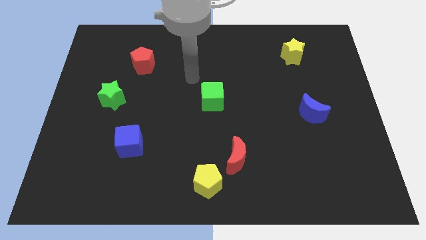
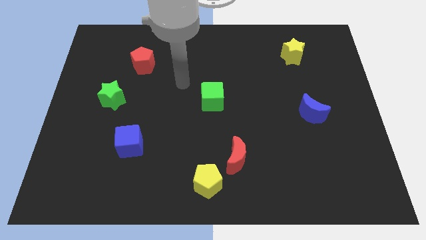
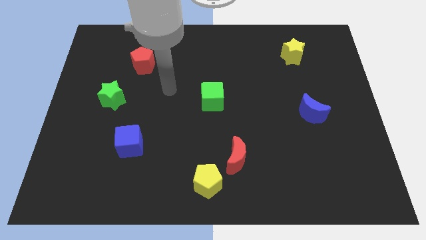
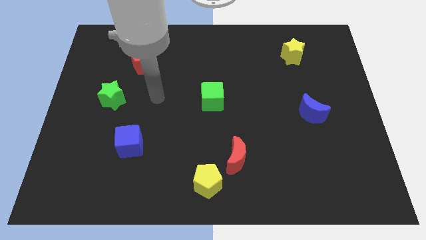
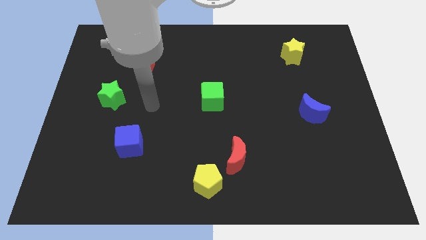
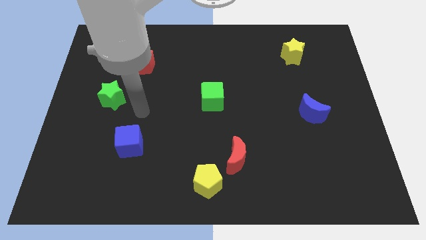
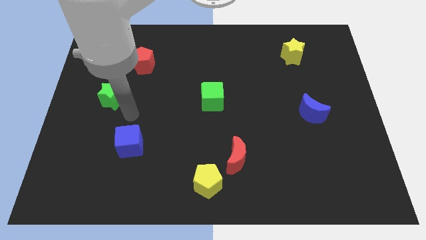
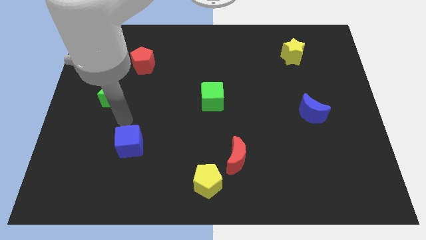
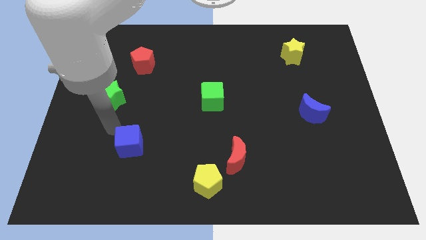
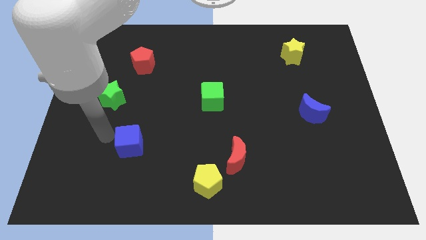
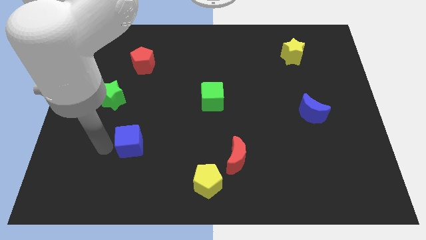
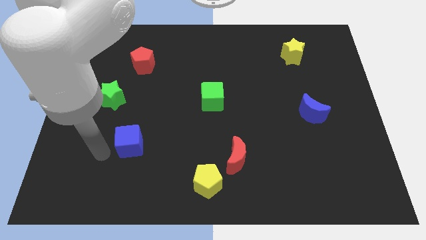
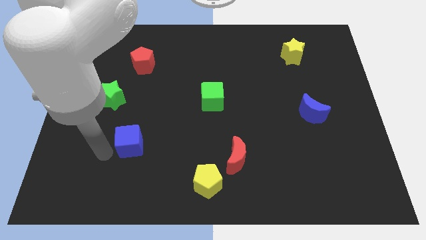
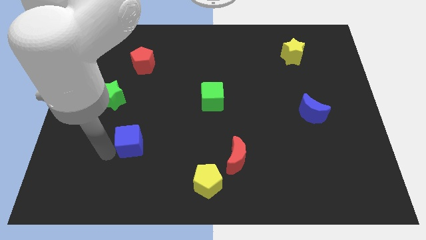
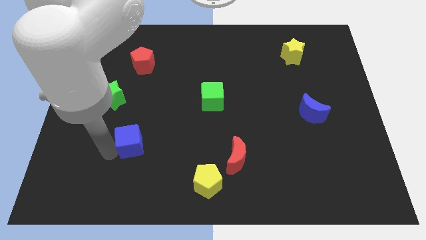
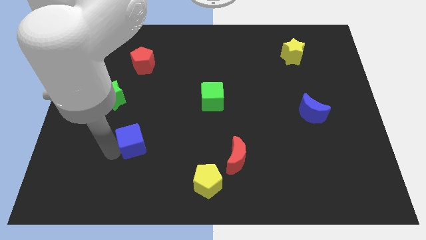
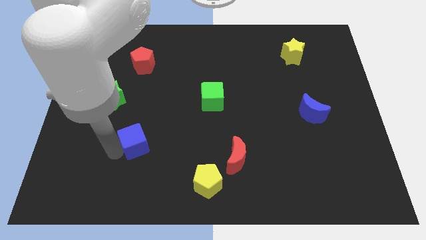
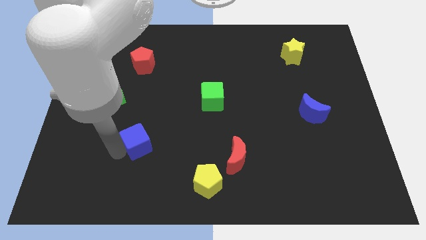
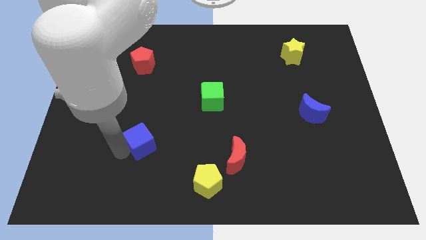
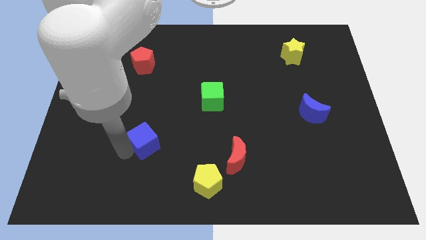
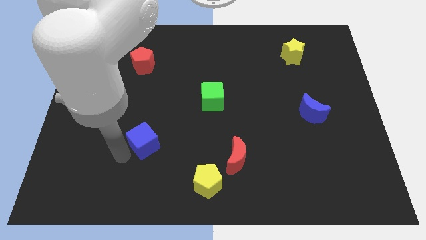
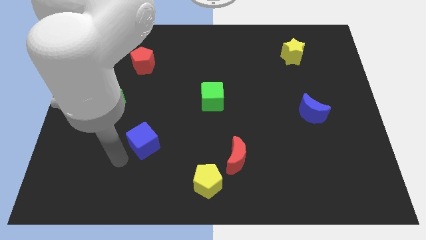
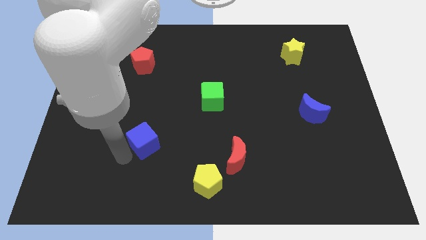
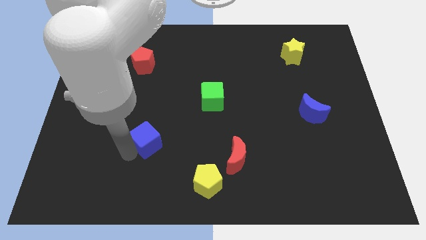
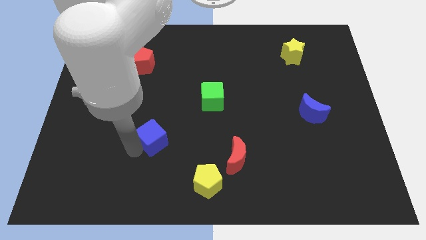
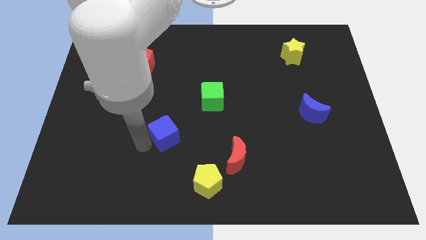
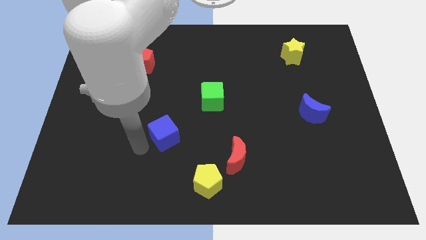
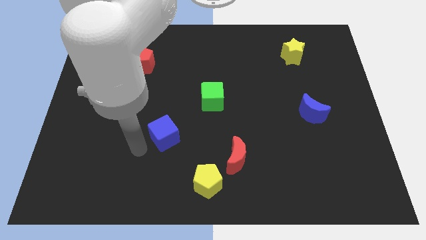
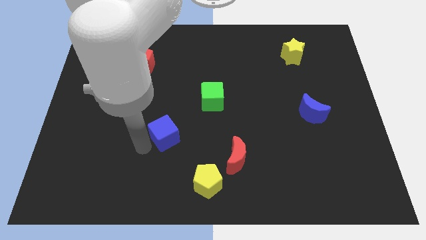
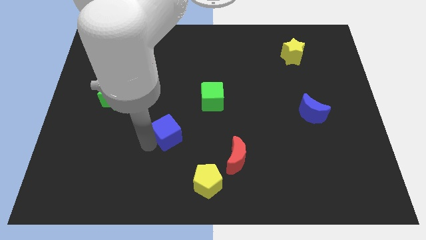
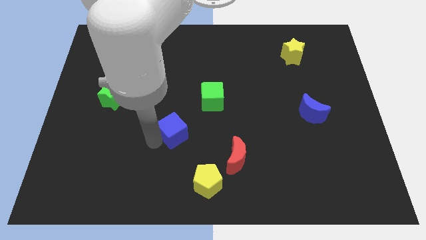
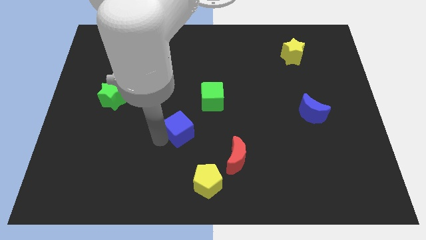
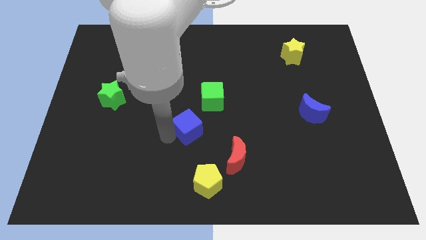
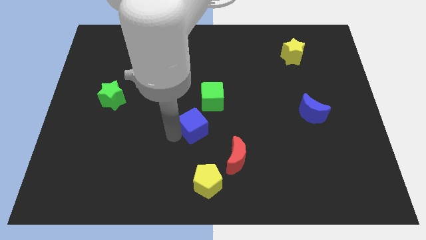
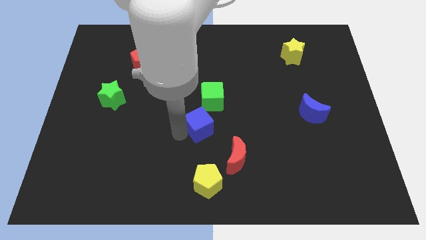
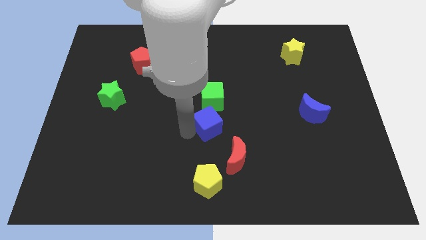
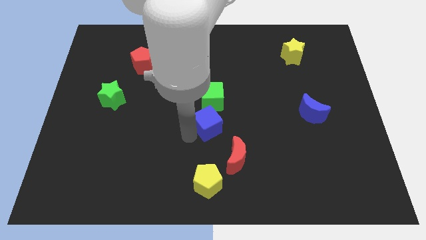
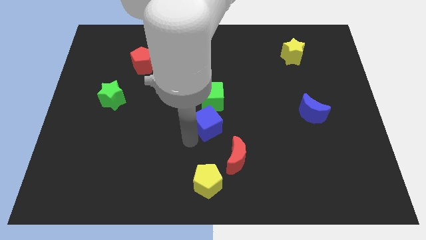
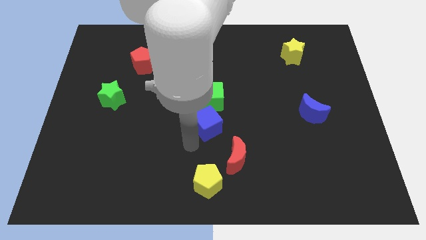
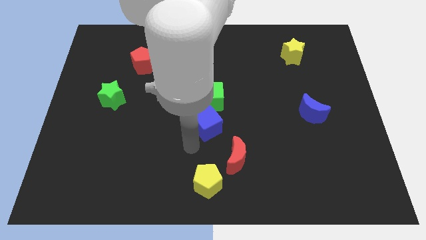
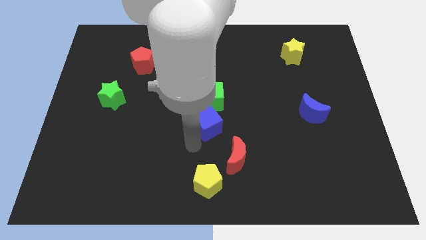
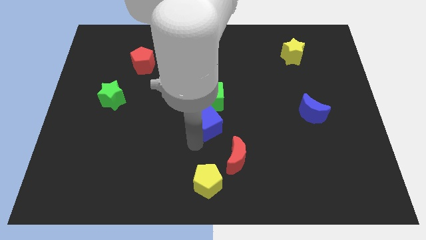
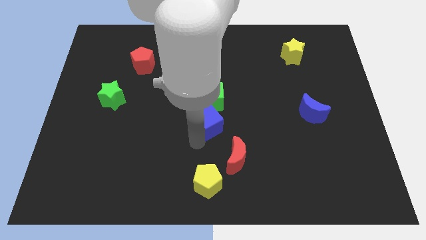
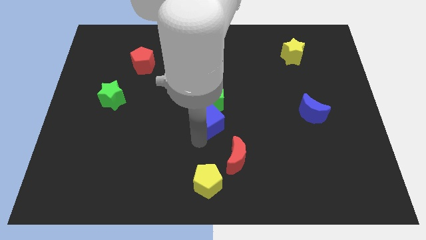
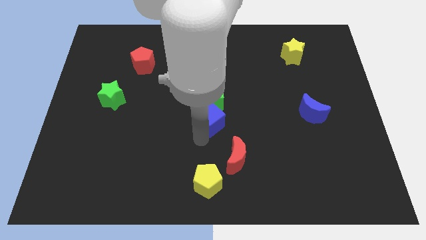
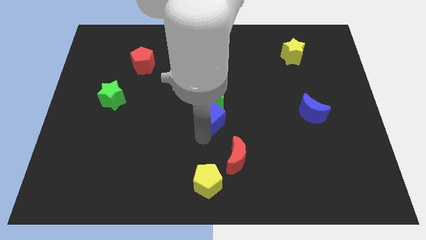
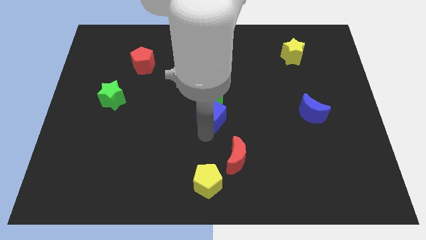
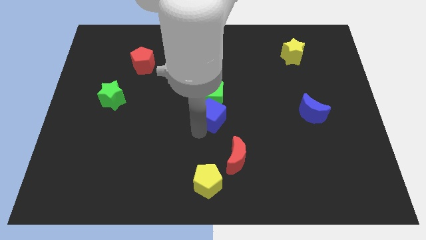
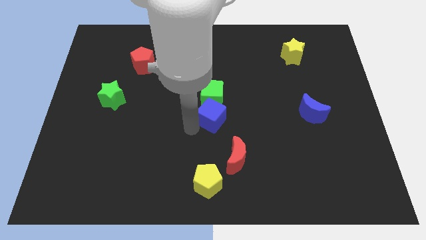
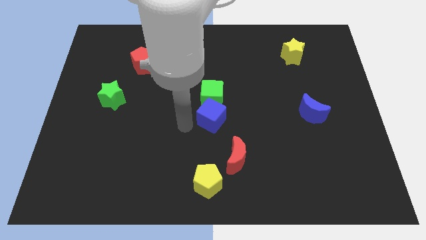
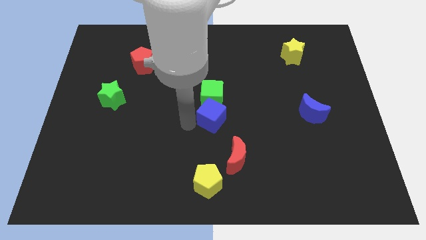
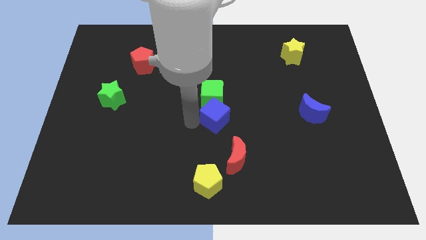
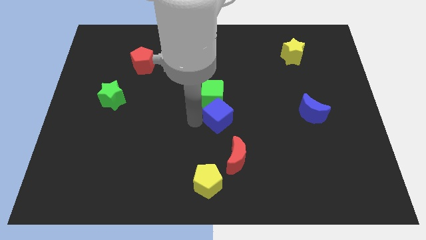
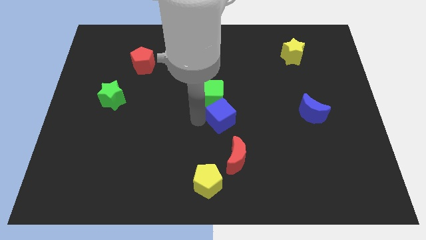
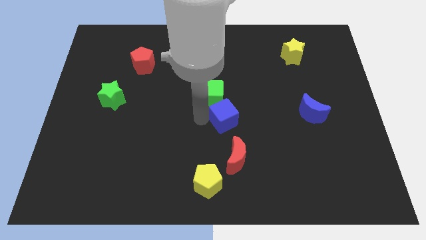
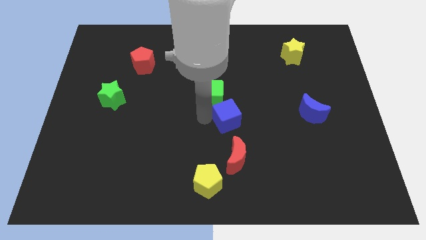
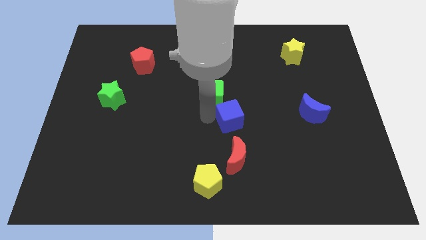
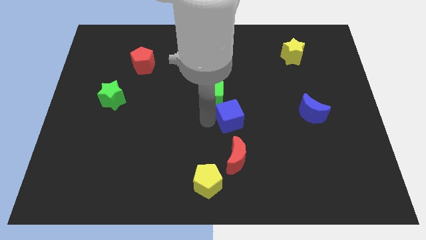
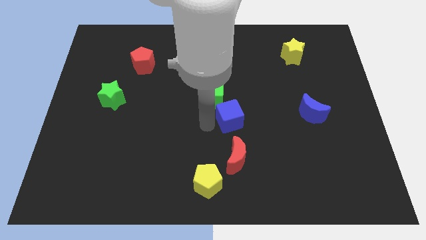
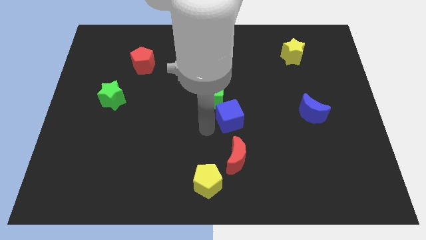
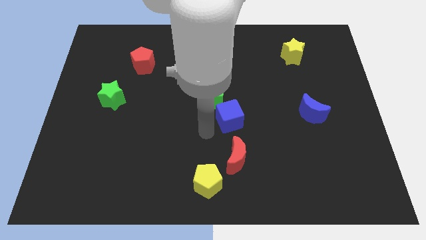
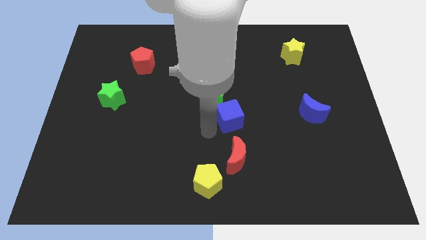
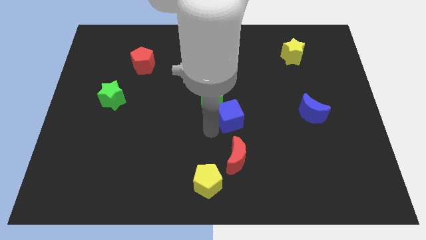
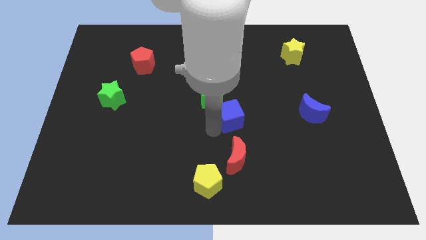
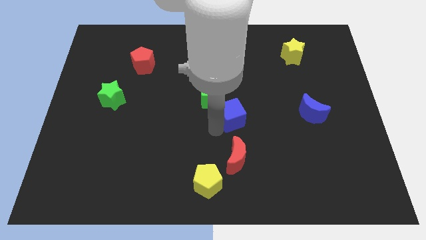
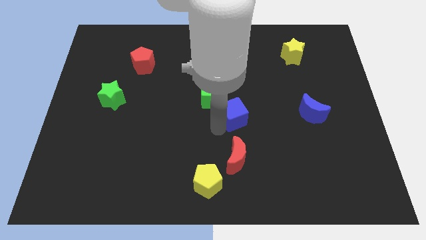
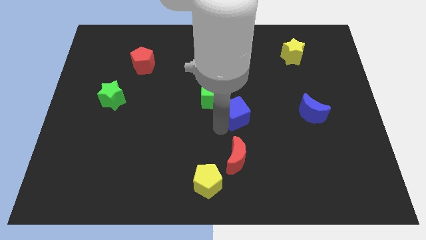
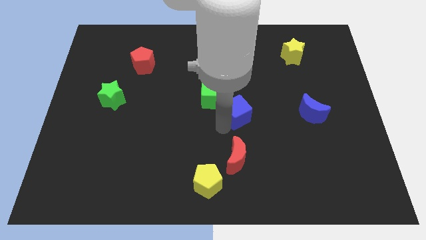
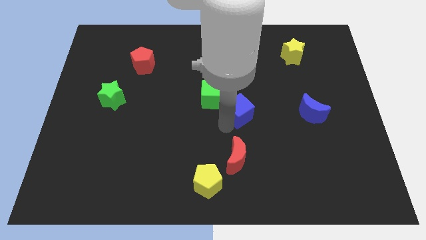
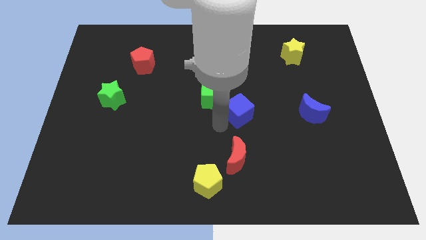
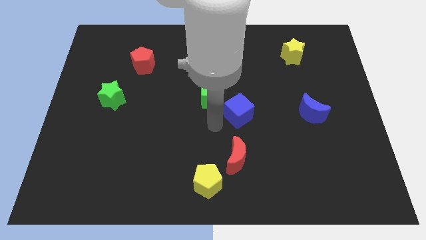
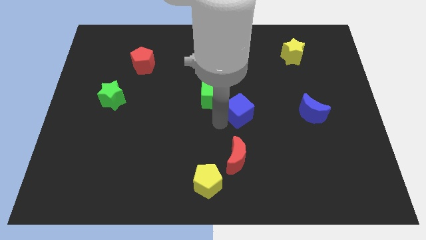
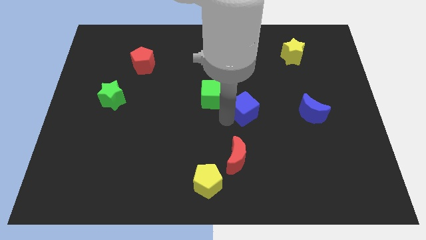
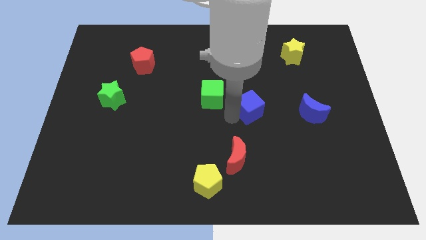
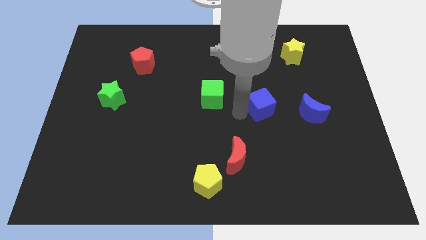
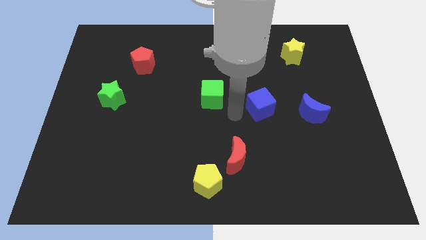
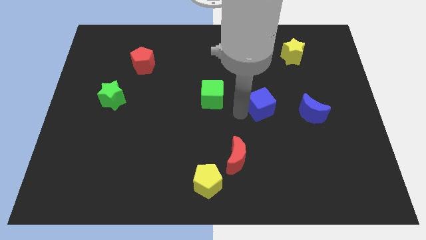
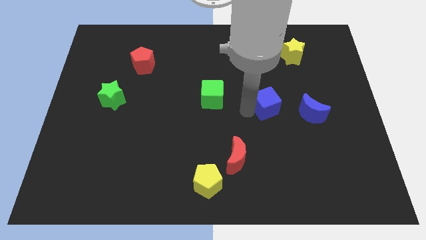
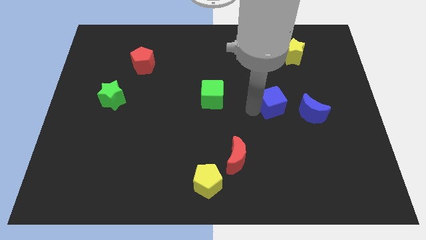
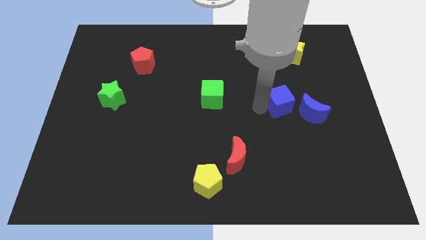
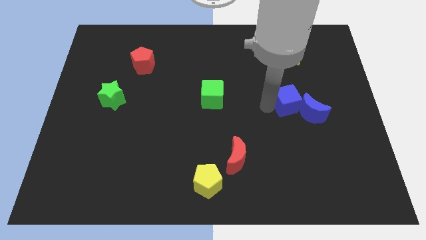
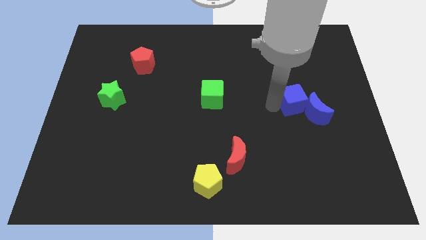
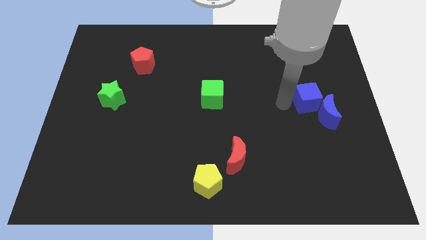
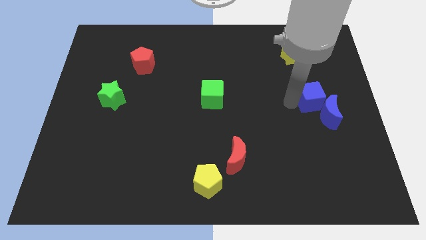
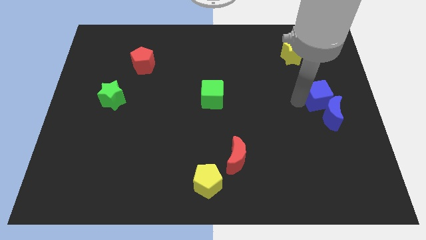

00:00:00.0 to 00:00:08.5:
slide the blue cube to the center right
